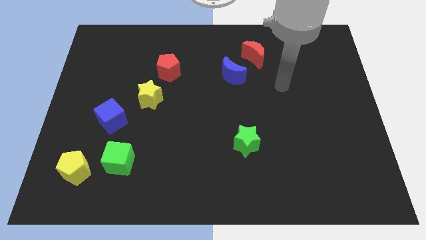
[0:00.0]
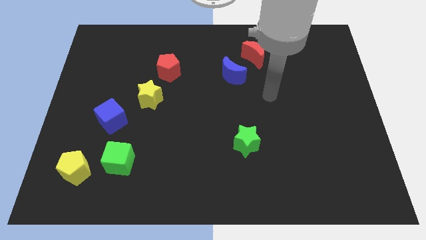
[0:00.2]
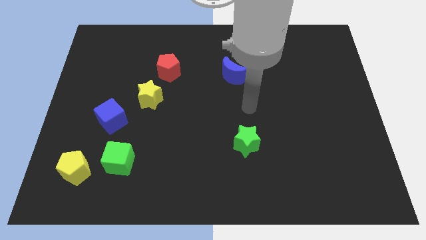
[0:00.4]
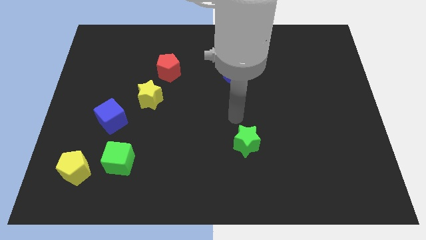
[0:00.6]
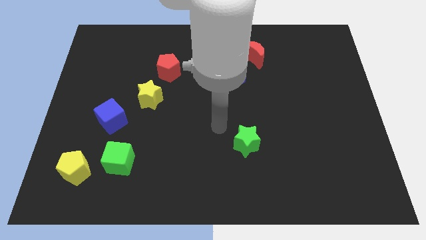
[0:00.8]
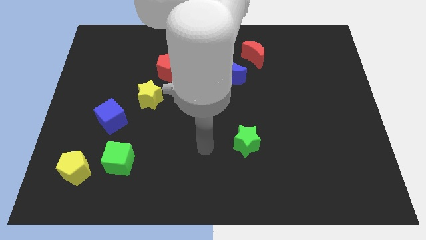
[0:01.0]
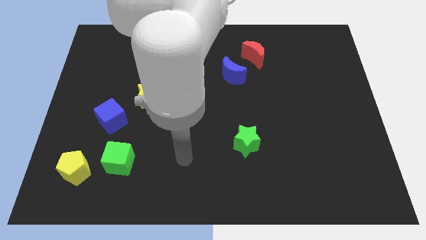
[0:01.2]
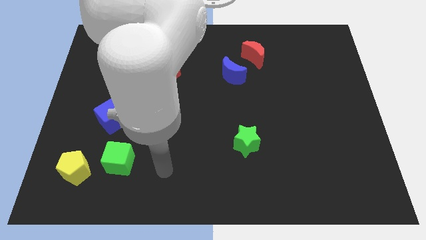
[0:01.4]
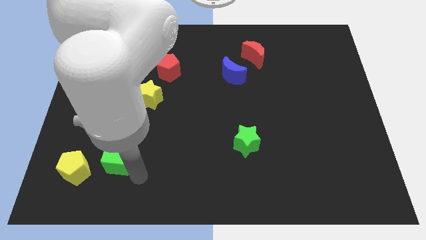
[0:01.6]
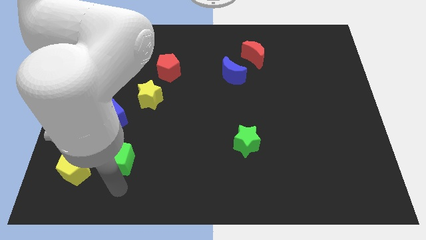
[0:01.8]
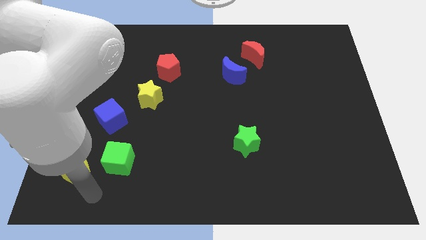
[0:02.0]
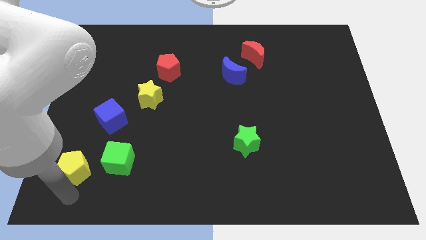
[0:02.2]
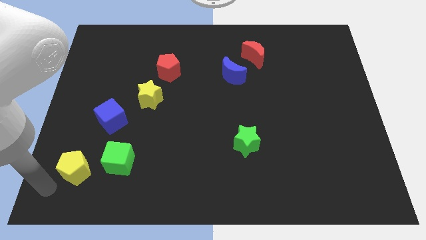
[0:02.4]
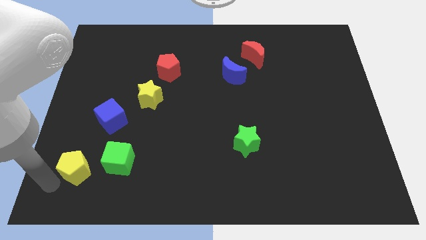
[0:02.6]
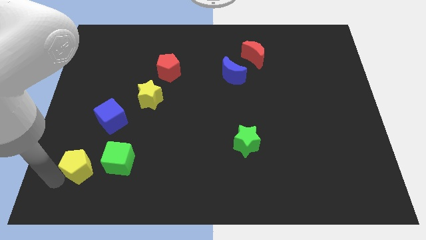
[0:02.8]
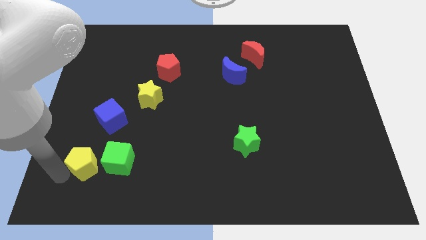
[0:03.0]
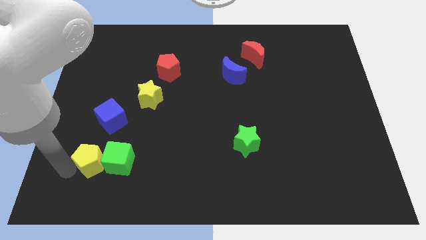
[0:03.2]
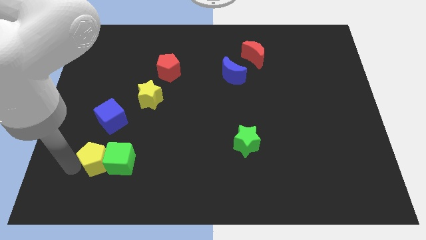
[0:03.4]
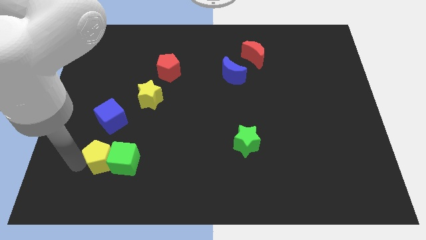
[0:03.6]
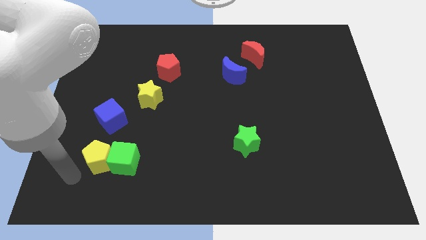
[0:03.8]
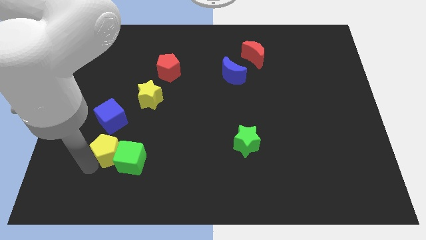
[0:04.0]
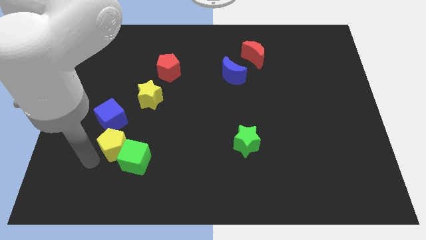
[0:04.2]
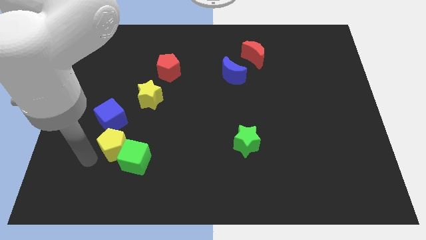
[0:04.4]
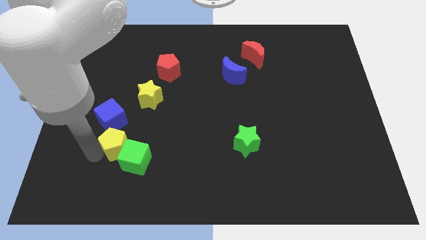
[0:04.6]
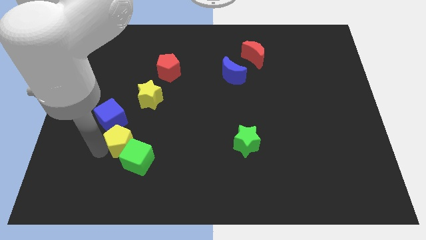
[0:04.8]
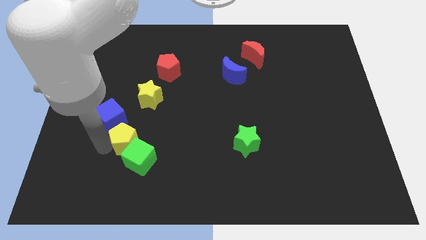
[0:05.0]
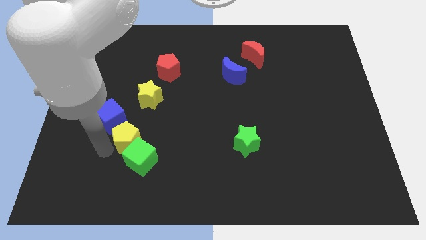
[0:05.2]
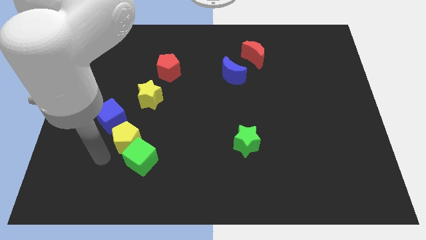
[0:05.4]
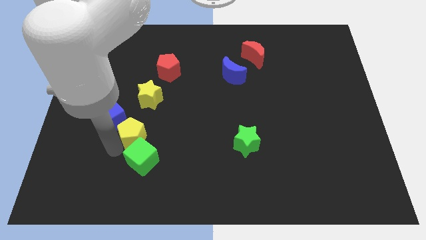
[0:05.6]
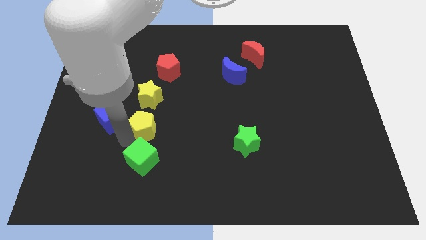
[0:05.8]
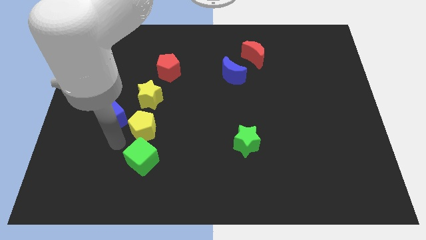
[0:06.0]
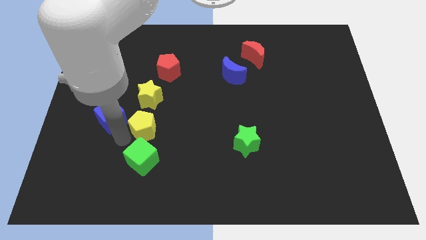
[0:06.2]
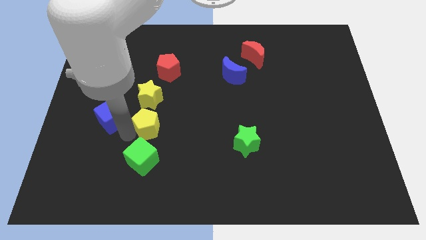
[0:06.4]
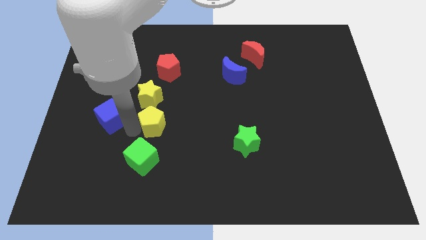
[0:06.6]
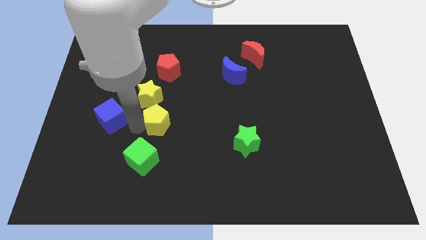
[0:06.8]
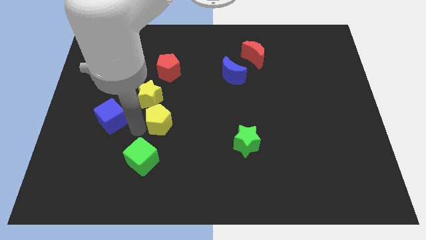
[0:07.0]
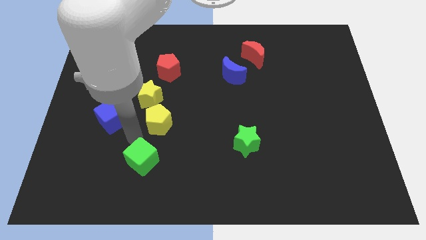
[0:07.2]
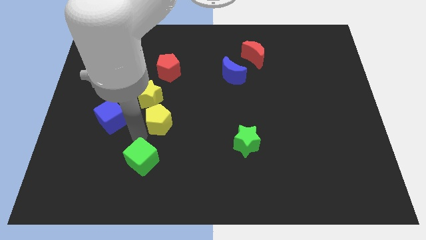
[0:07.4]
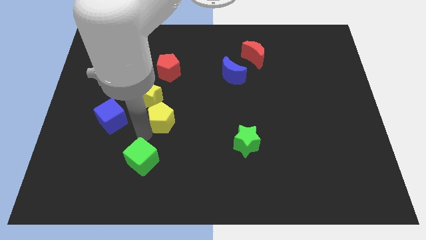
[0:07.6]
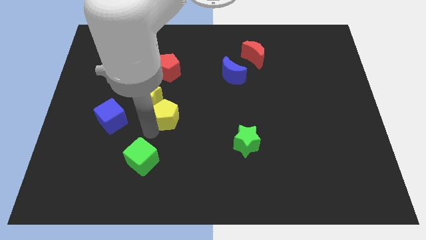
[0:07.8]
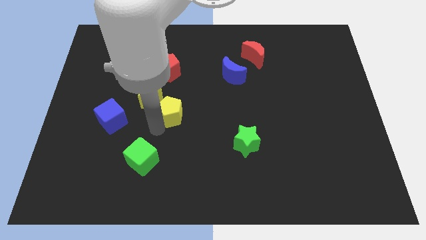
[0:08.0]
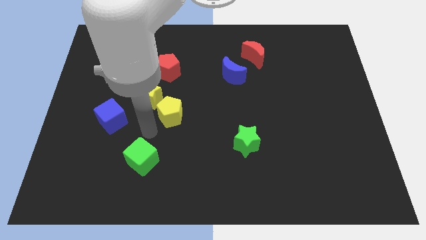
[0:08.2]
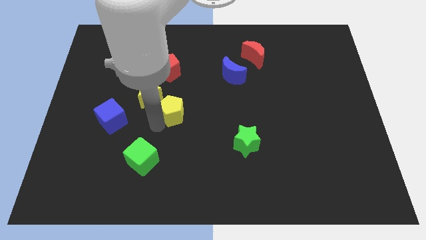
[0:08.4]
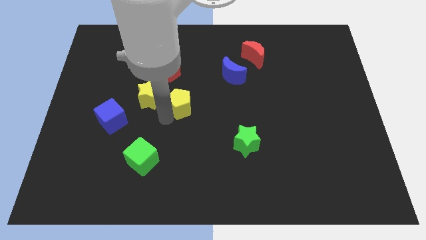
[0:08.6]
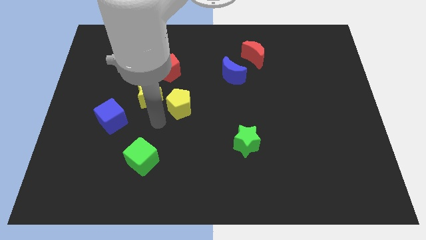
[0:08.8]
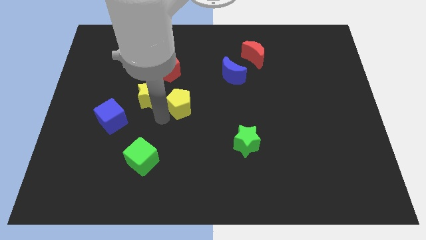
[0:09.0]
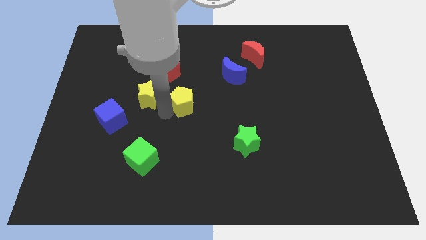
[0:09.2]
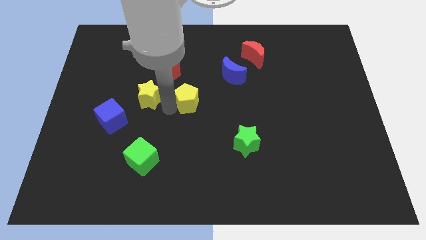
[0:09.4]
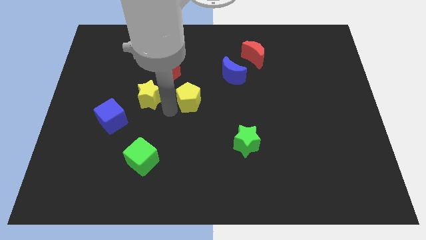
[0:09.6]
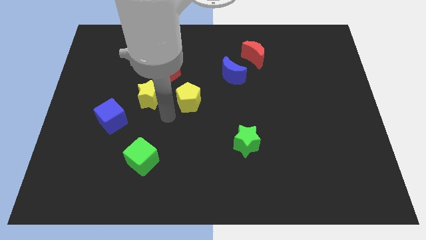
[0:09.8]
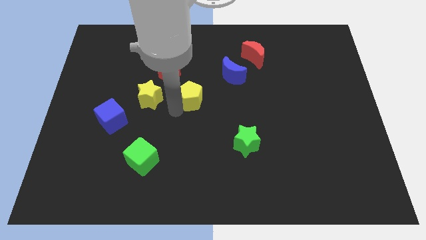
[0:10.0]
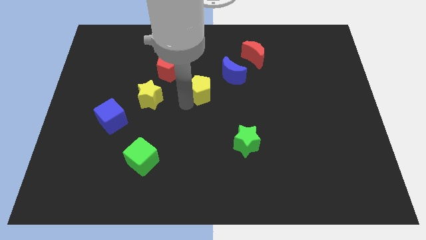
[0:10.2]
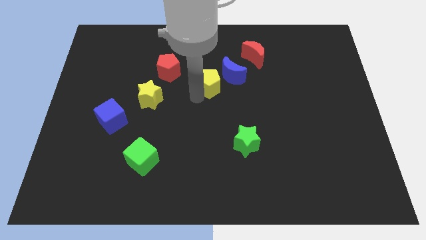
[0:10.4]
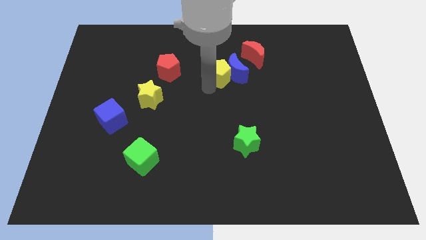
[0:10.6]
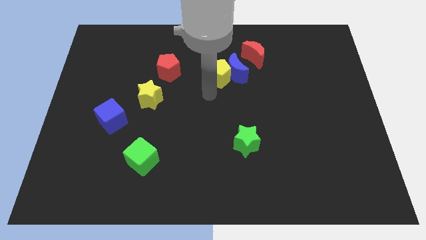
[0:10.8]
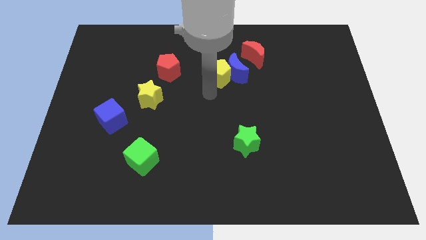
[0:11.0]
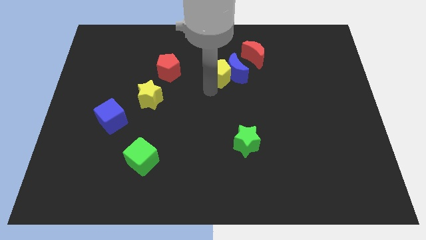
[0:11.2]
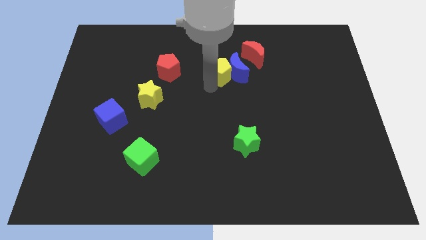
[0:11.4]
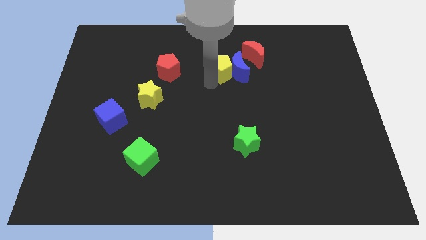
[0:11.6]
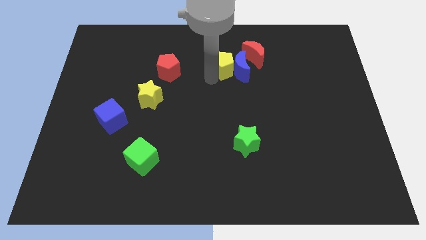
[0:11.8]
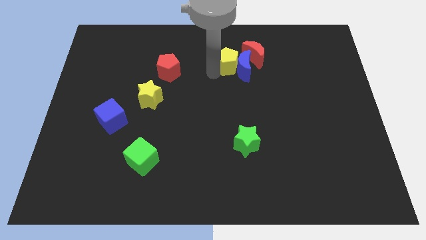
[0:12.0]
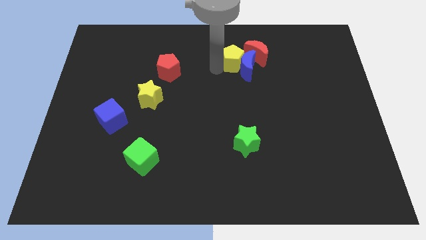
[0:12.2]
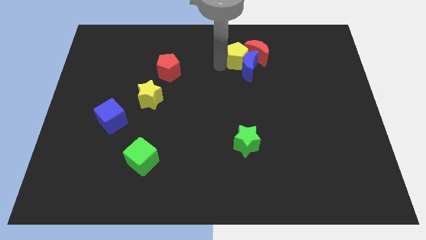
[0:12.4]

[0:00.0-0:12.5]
put the yellow pentagon close to the red moon

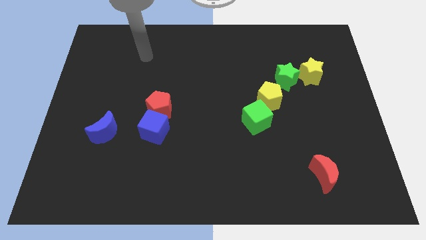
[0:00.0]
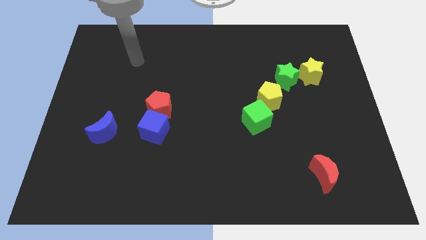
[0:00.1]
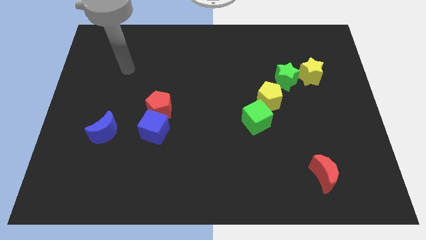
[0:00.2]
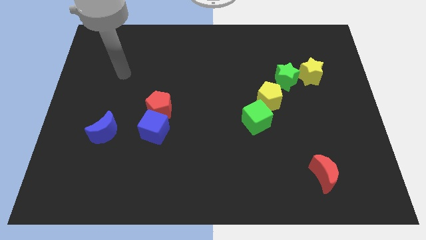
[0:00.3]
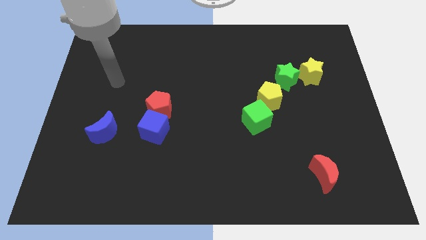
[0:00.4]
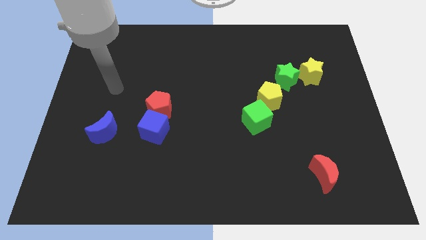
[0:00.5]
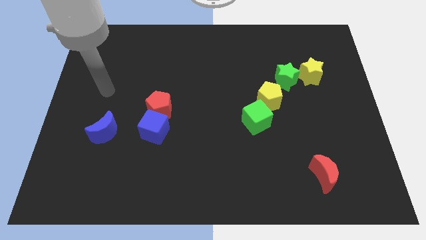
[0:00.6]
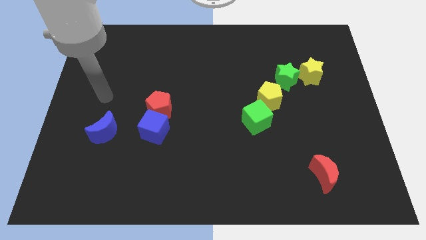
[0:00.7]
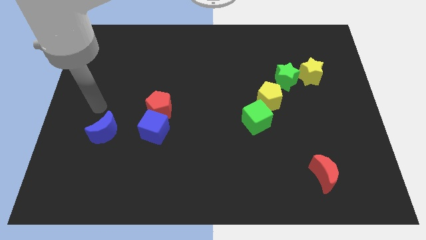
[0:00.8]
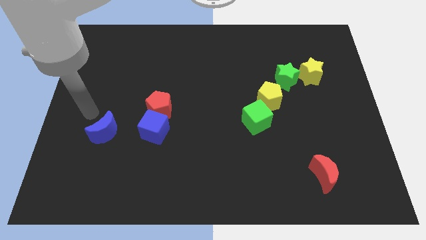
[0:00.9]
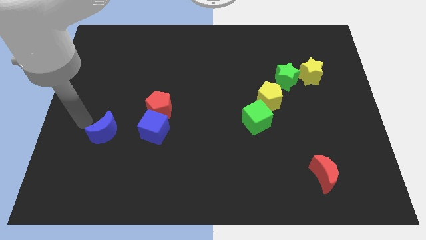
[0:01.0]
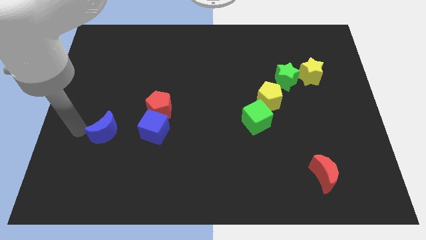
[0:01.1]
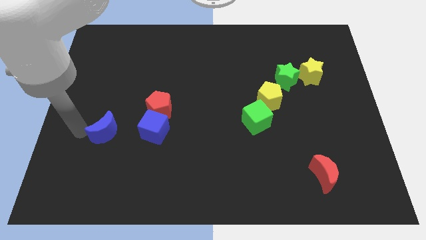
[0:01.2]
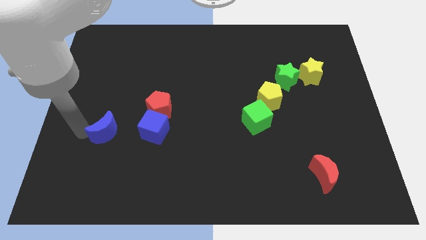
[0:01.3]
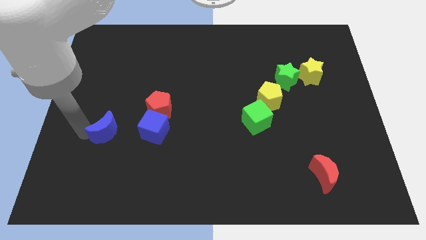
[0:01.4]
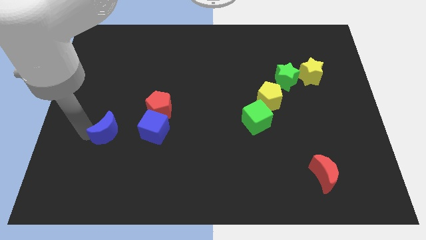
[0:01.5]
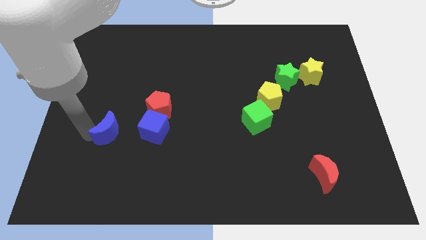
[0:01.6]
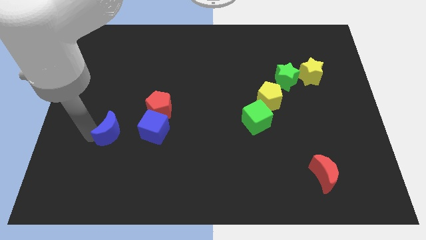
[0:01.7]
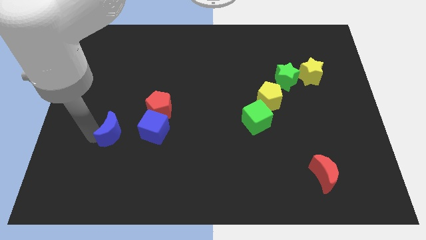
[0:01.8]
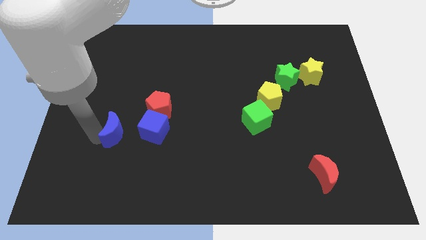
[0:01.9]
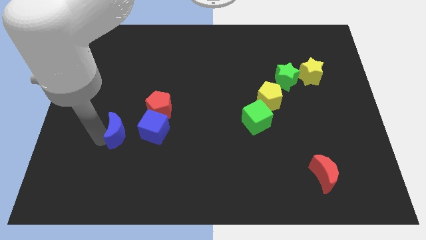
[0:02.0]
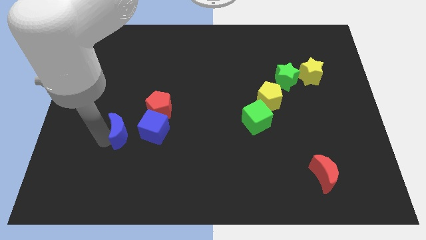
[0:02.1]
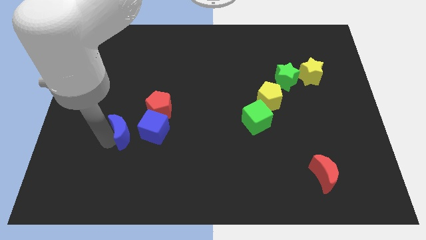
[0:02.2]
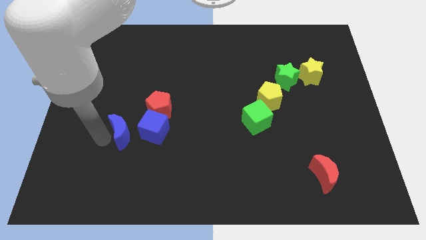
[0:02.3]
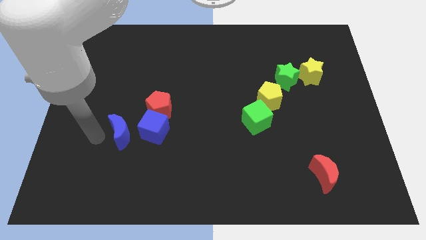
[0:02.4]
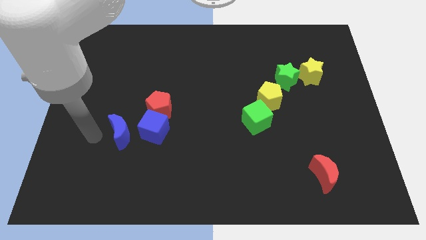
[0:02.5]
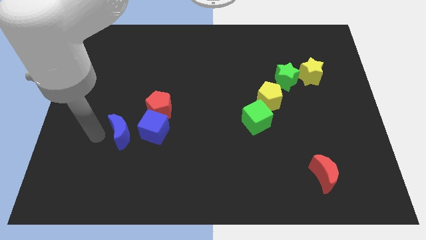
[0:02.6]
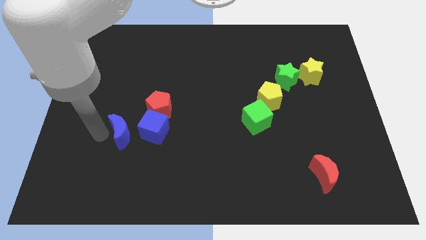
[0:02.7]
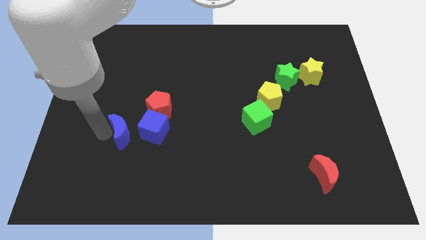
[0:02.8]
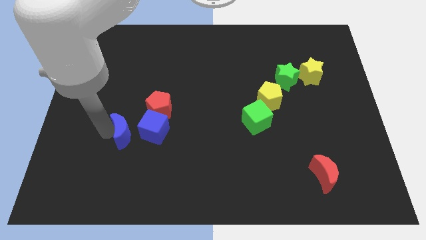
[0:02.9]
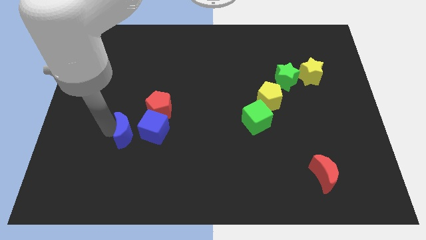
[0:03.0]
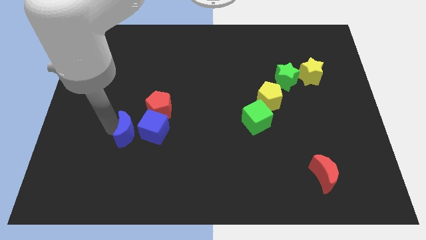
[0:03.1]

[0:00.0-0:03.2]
move the blue moon towards the blue cube
